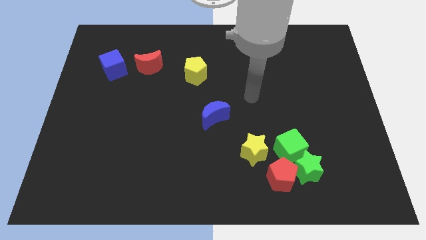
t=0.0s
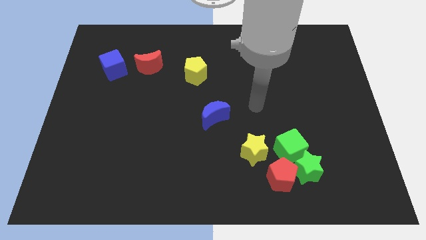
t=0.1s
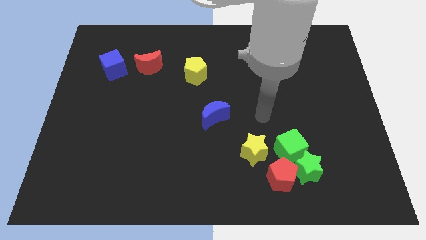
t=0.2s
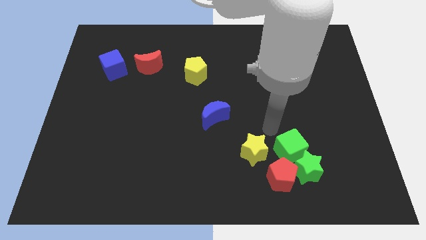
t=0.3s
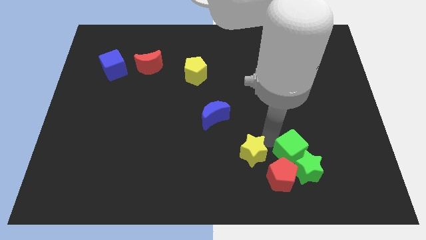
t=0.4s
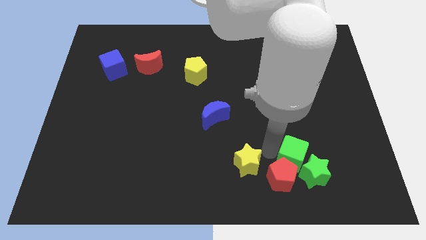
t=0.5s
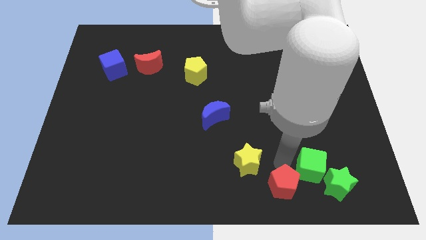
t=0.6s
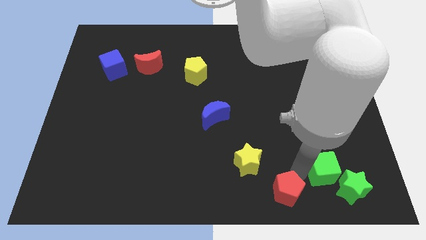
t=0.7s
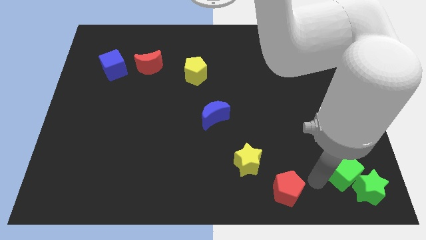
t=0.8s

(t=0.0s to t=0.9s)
pull the green star apart from the green cube and red pentagon

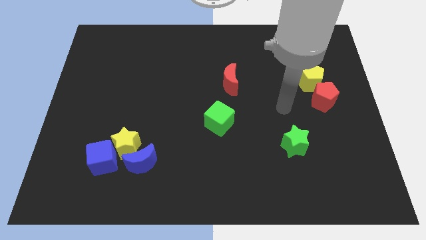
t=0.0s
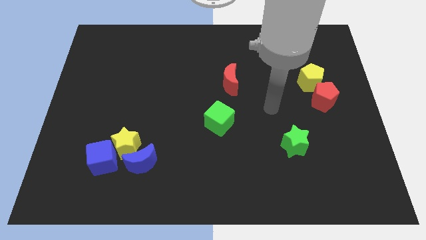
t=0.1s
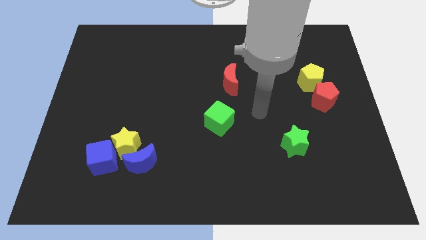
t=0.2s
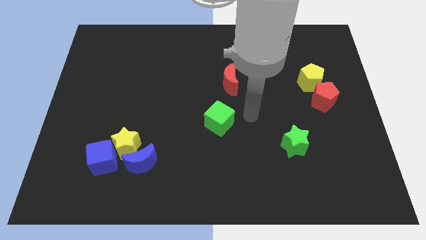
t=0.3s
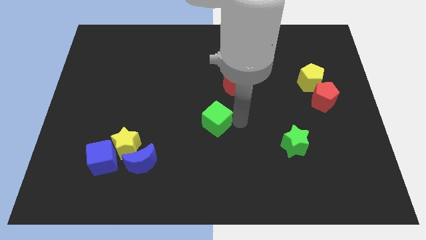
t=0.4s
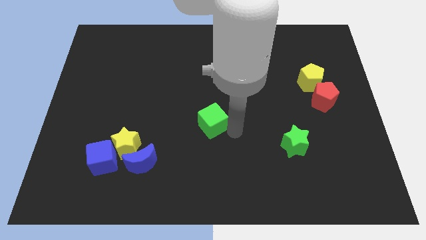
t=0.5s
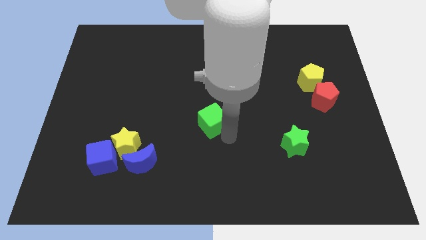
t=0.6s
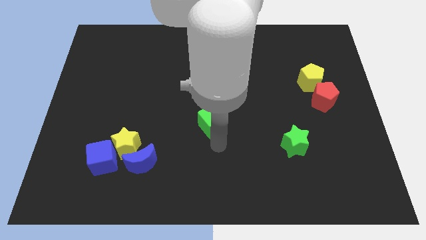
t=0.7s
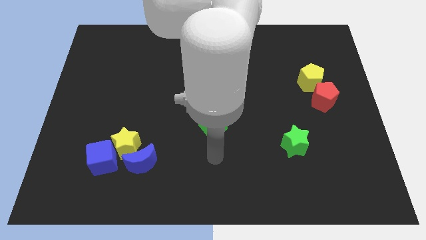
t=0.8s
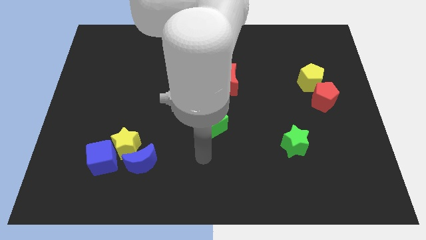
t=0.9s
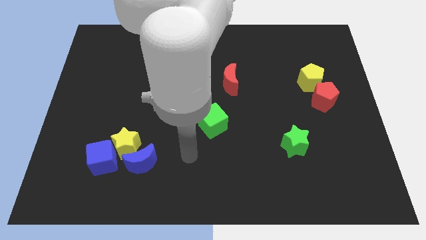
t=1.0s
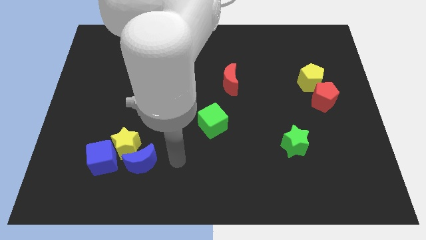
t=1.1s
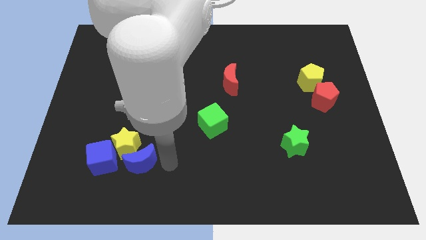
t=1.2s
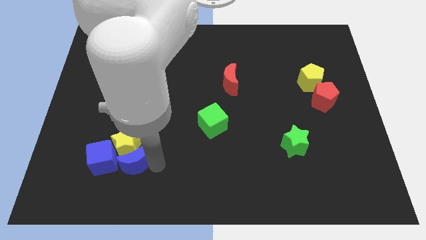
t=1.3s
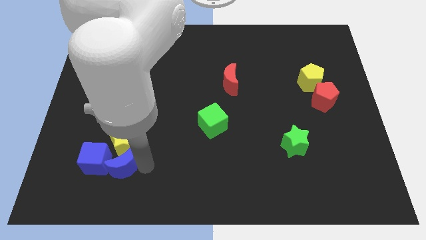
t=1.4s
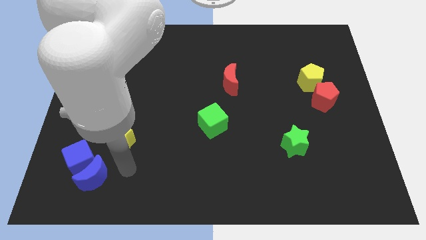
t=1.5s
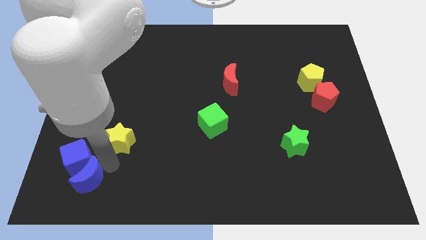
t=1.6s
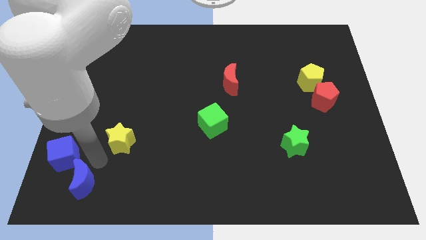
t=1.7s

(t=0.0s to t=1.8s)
pull the yellow star apart from the blue moon and blue cube

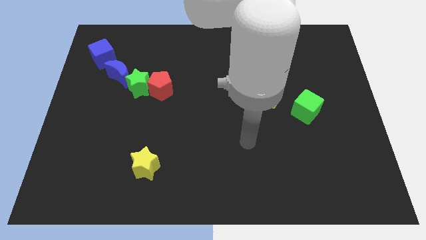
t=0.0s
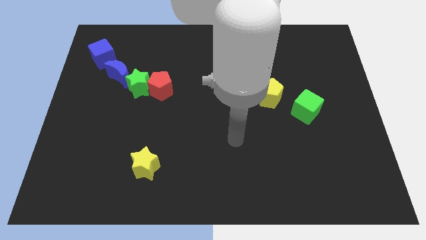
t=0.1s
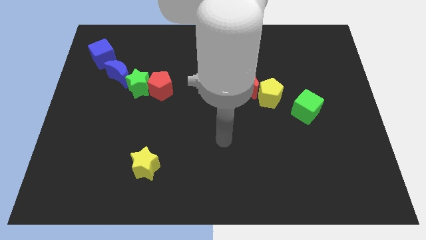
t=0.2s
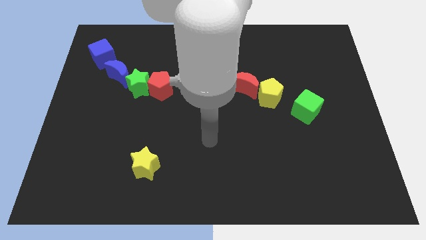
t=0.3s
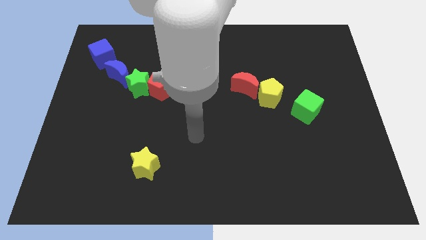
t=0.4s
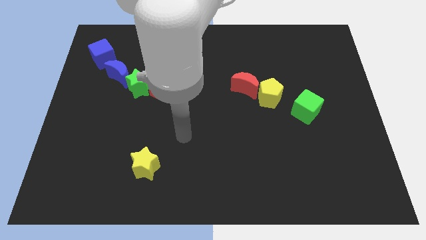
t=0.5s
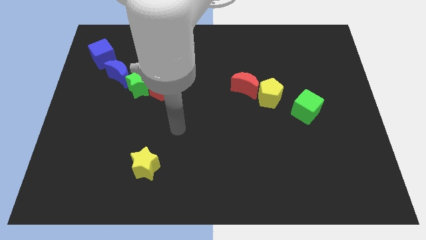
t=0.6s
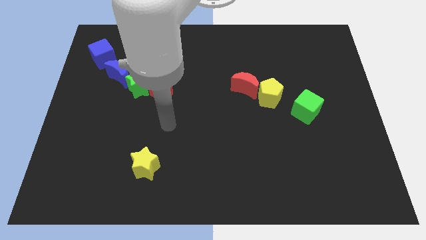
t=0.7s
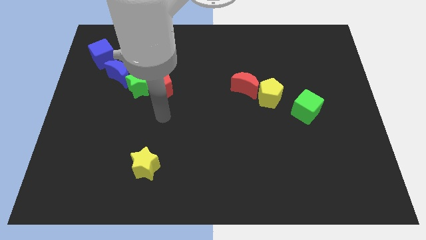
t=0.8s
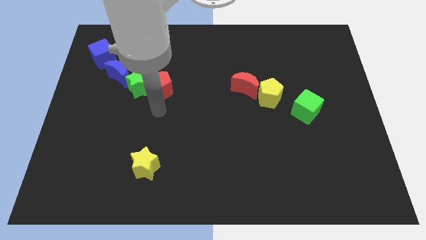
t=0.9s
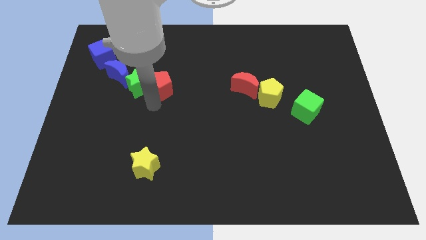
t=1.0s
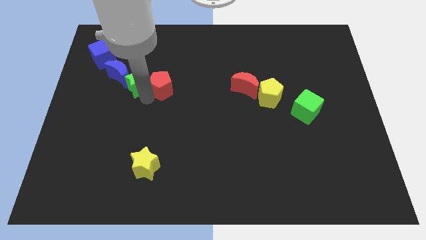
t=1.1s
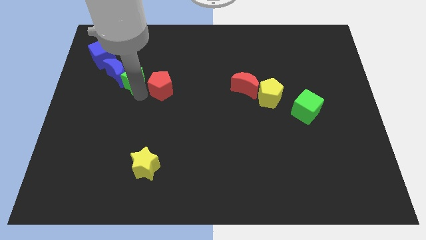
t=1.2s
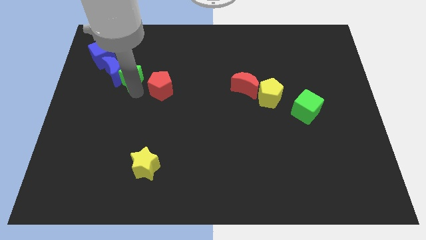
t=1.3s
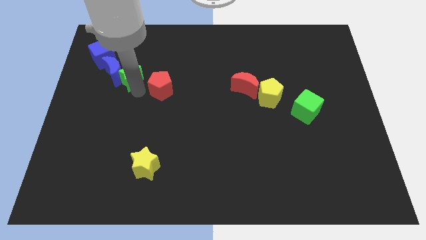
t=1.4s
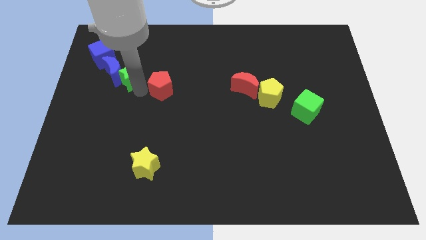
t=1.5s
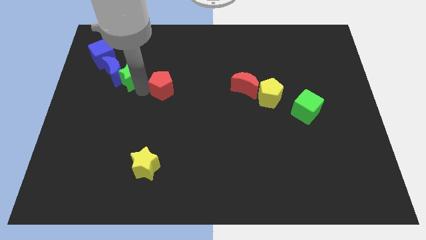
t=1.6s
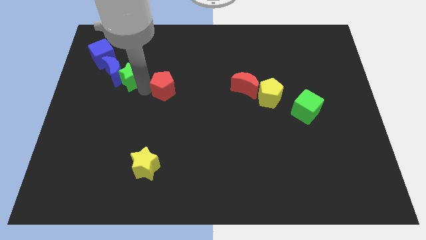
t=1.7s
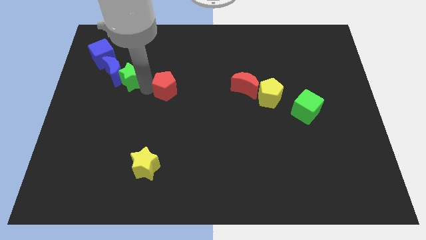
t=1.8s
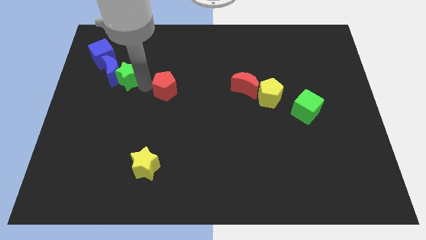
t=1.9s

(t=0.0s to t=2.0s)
move the red pentagon away from the green star

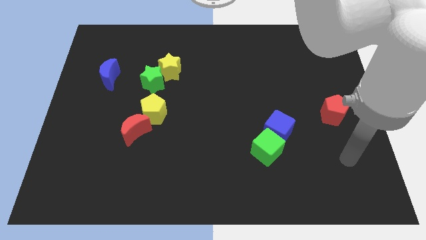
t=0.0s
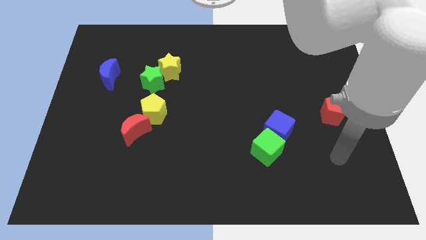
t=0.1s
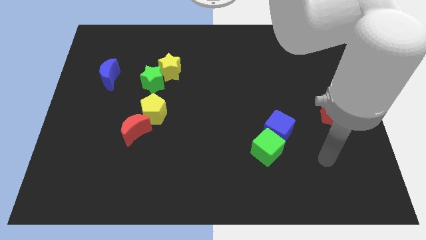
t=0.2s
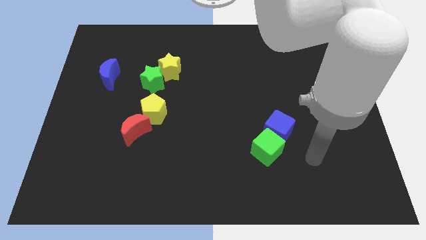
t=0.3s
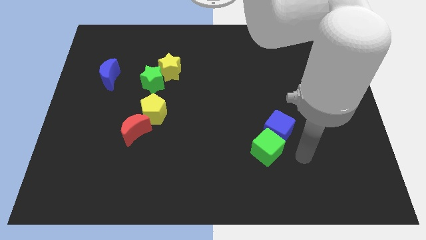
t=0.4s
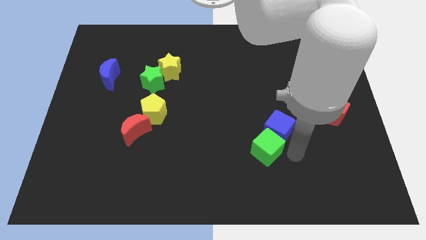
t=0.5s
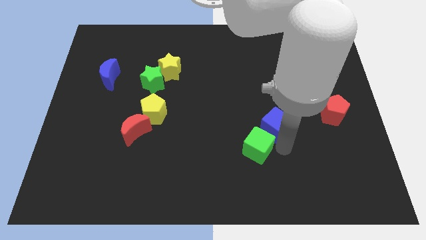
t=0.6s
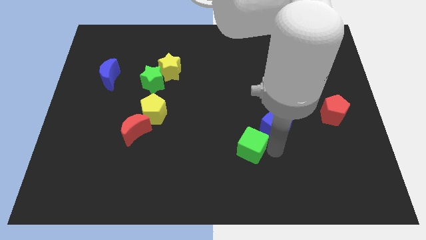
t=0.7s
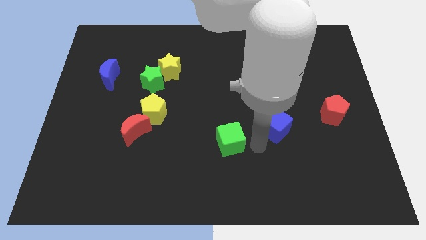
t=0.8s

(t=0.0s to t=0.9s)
separate the blue cube from the green cube

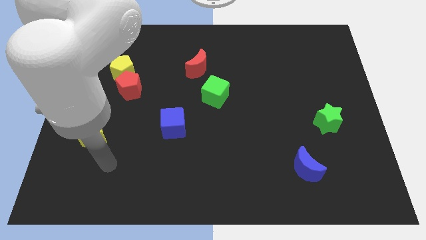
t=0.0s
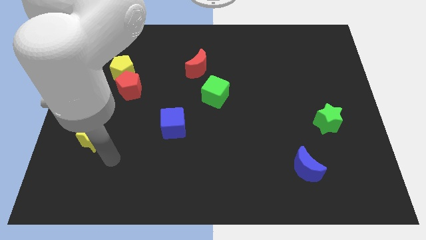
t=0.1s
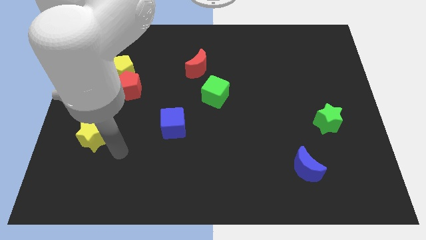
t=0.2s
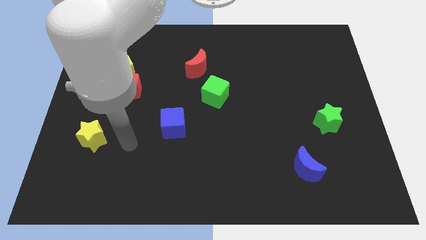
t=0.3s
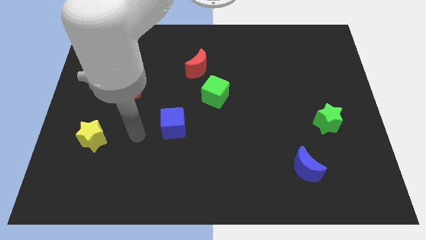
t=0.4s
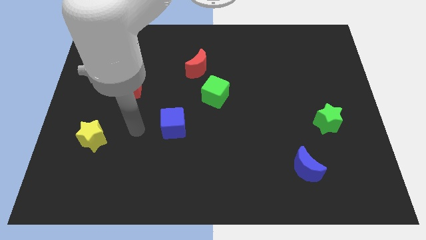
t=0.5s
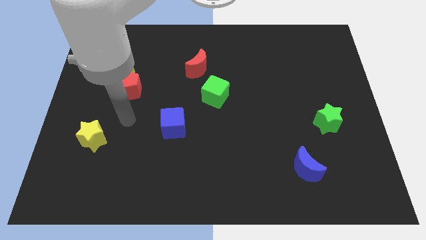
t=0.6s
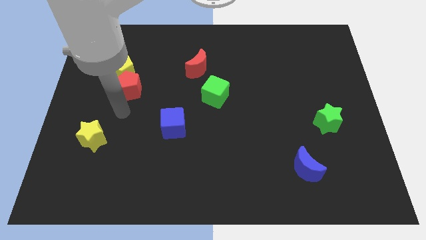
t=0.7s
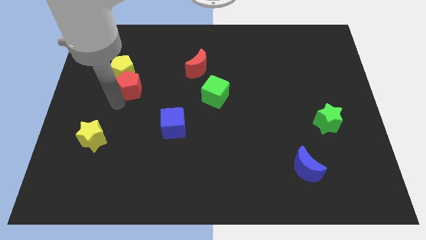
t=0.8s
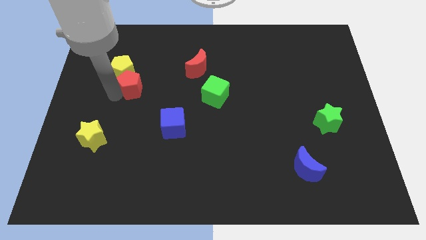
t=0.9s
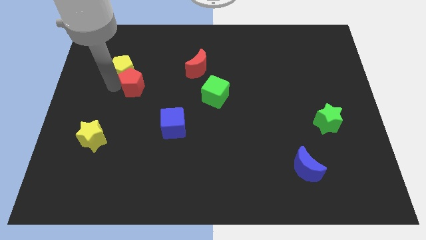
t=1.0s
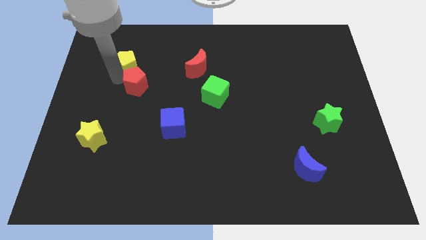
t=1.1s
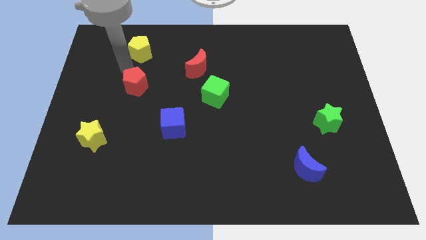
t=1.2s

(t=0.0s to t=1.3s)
separate the red pentagon from the yellow pentagon

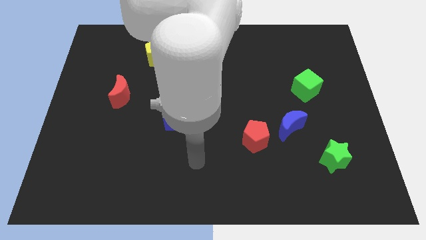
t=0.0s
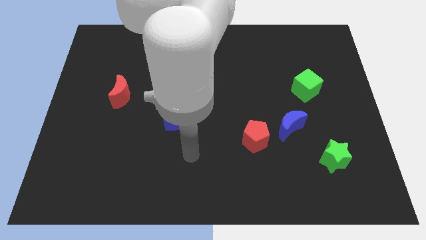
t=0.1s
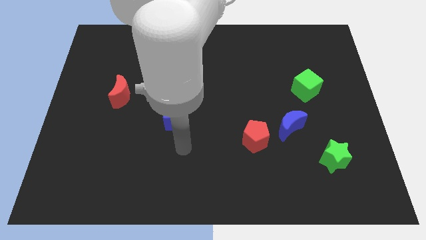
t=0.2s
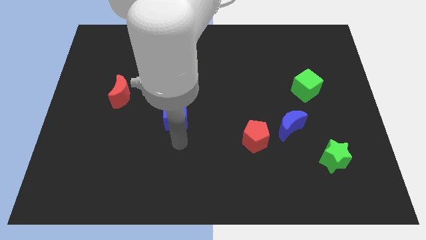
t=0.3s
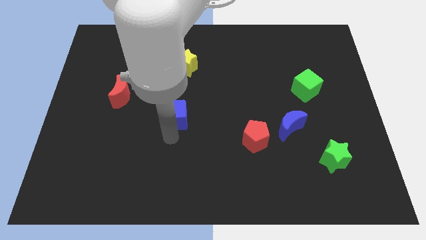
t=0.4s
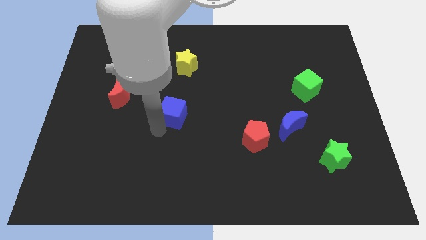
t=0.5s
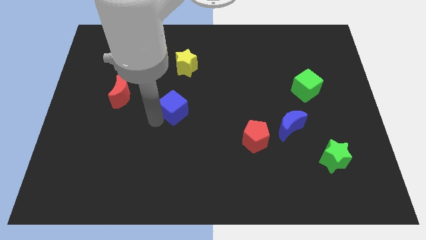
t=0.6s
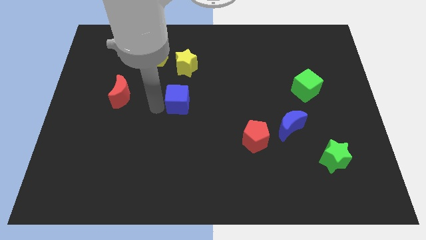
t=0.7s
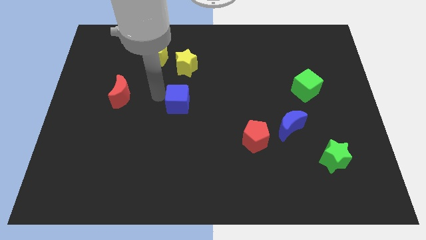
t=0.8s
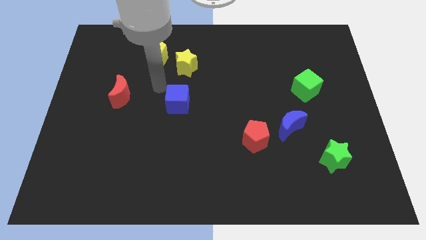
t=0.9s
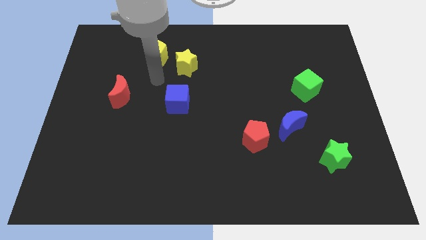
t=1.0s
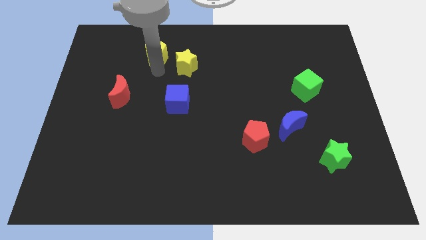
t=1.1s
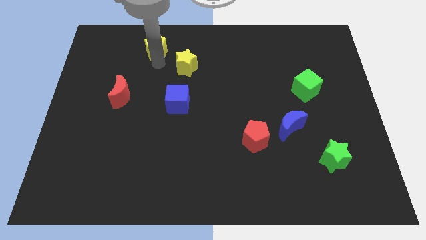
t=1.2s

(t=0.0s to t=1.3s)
pull the yellow star apart from the yellow pentagon

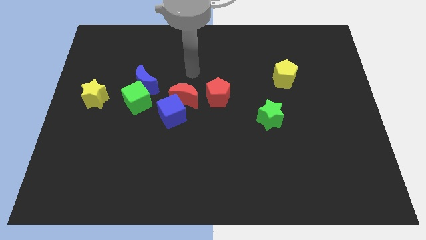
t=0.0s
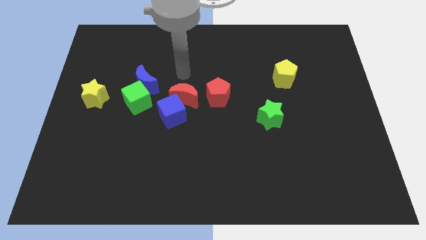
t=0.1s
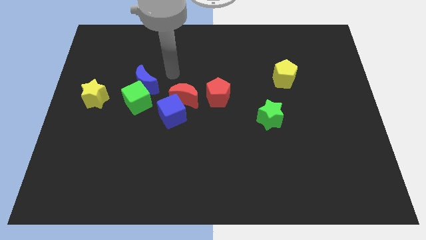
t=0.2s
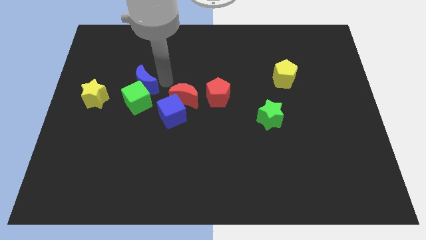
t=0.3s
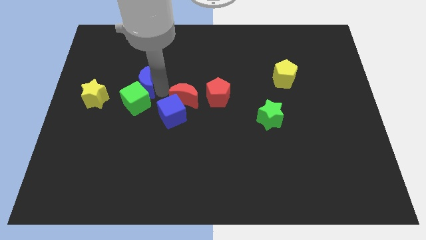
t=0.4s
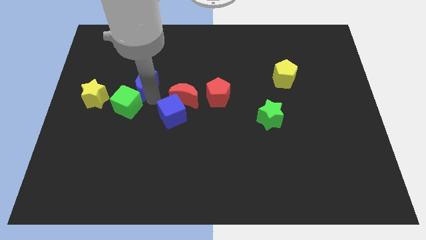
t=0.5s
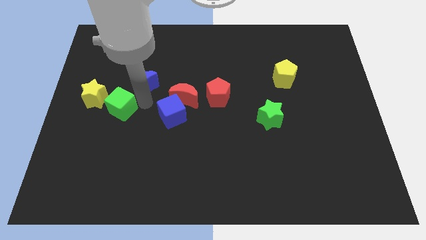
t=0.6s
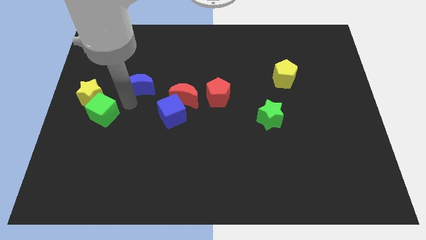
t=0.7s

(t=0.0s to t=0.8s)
separate the blue moon from the green cube

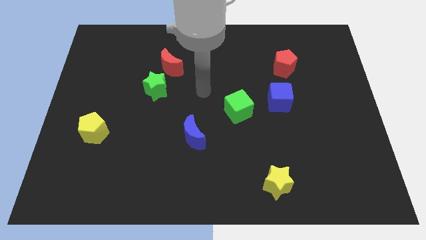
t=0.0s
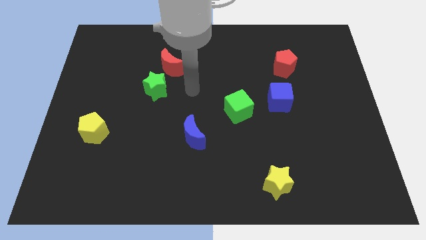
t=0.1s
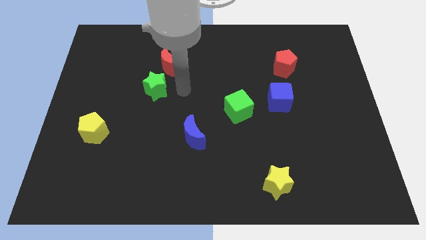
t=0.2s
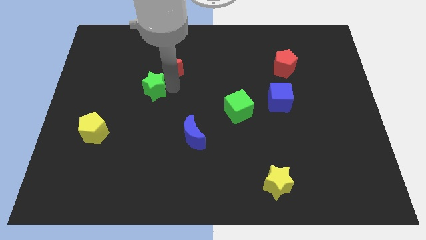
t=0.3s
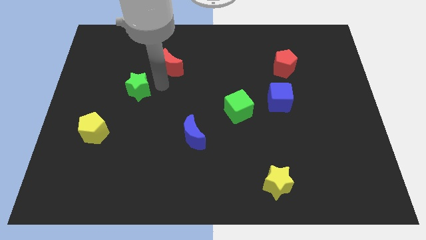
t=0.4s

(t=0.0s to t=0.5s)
separate the red moon from the green star
